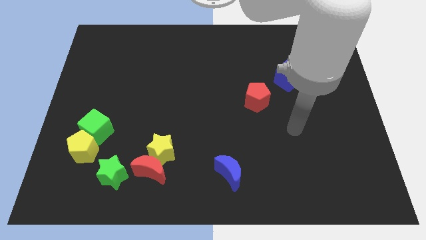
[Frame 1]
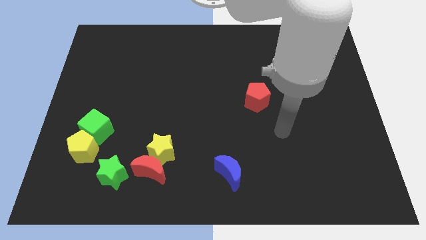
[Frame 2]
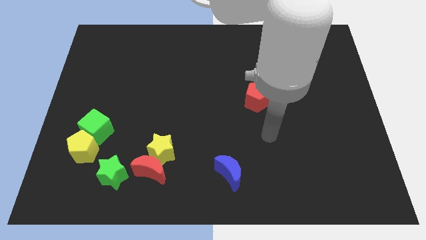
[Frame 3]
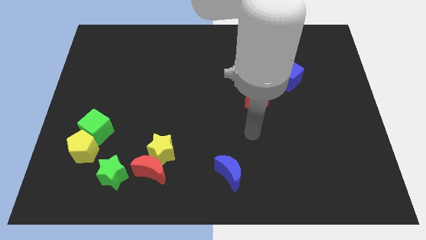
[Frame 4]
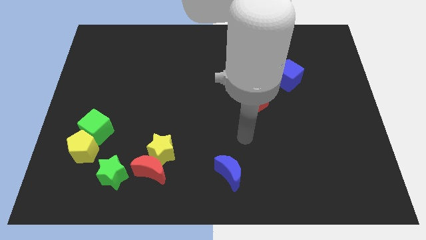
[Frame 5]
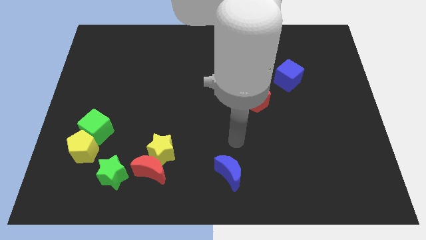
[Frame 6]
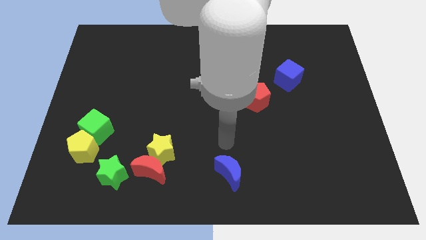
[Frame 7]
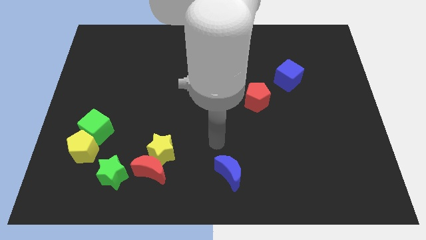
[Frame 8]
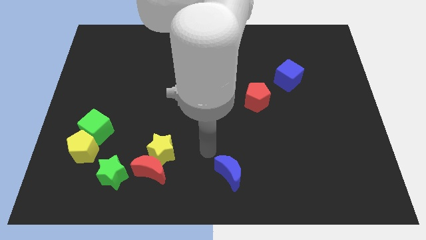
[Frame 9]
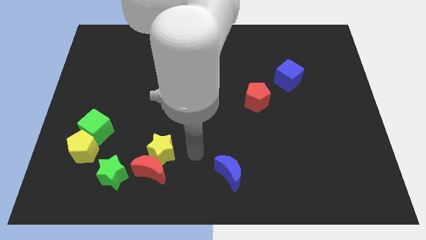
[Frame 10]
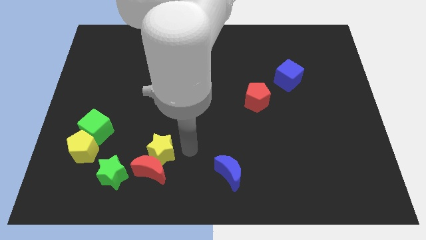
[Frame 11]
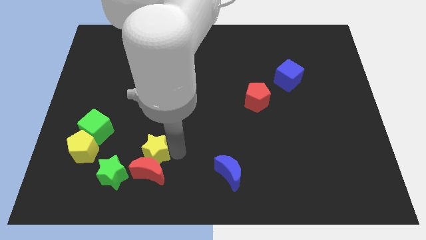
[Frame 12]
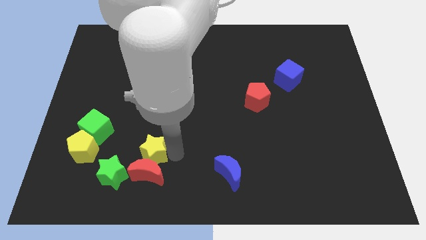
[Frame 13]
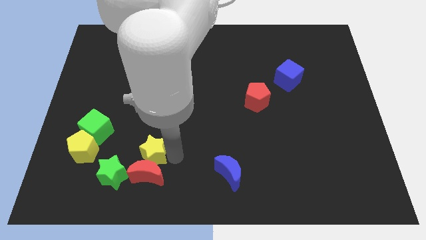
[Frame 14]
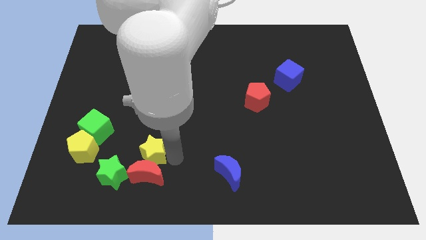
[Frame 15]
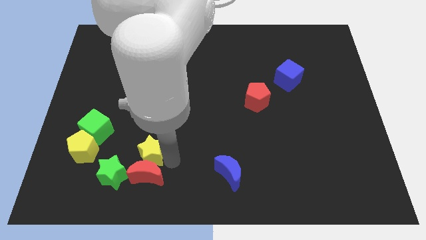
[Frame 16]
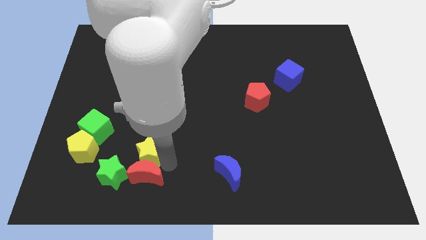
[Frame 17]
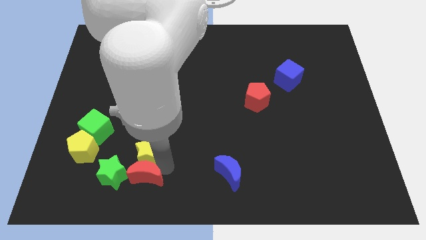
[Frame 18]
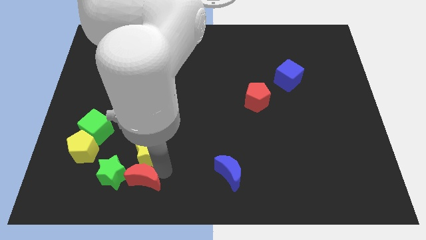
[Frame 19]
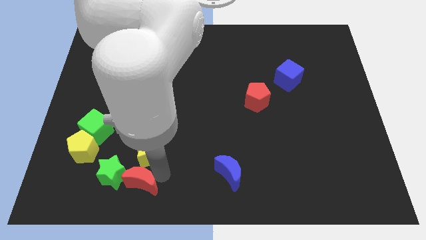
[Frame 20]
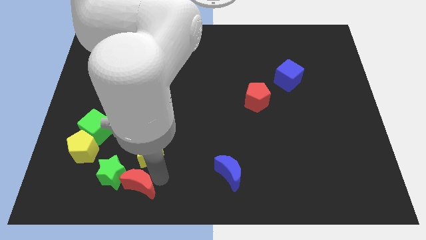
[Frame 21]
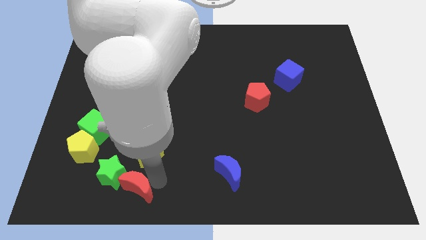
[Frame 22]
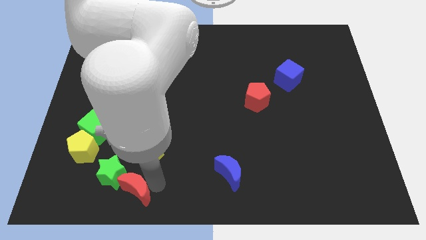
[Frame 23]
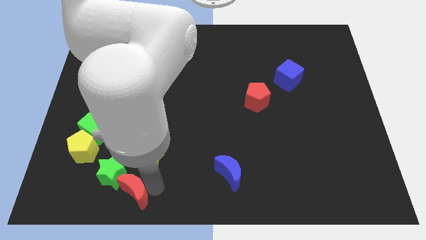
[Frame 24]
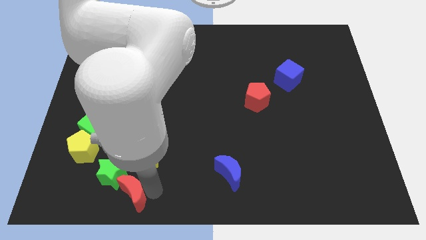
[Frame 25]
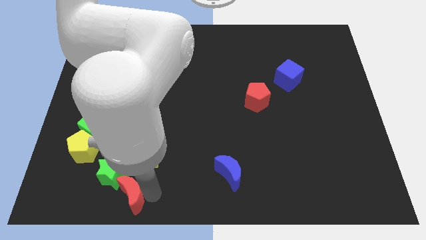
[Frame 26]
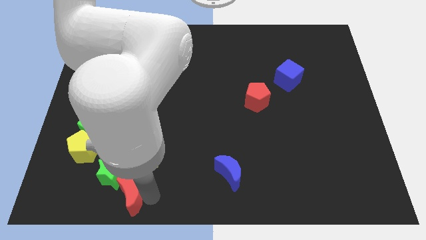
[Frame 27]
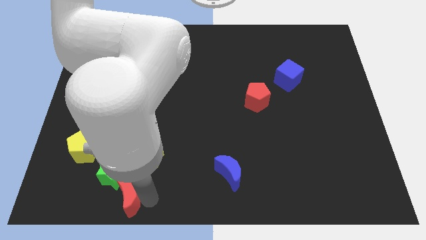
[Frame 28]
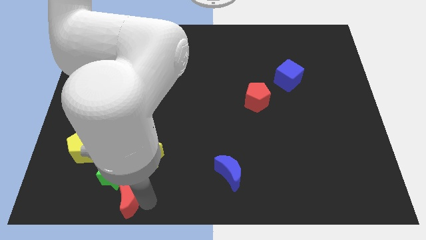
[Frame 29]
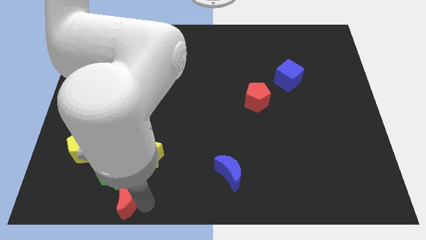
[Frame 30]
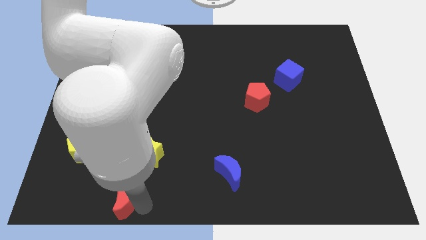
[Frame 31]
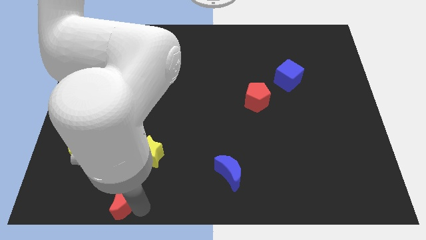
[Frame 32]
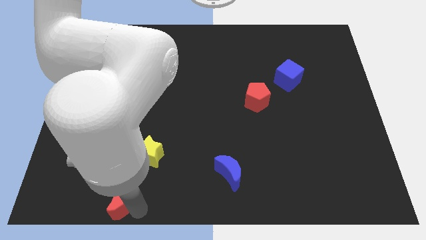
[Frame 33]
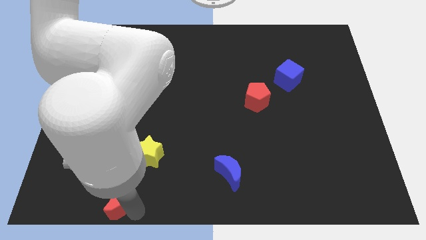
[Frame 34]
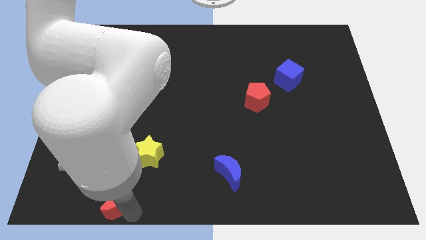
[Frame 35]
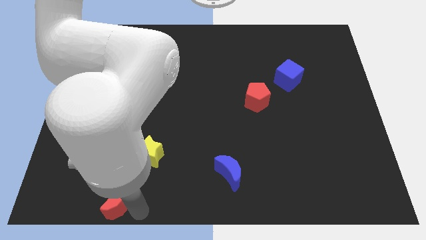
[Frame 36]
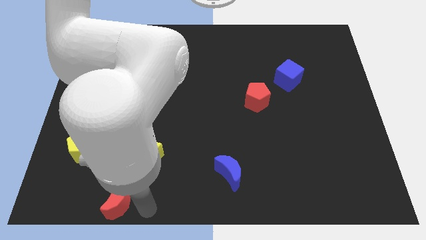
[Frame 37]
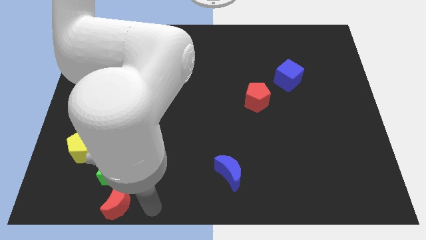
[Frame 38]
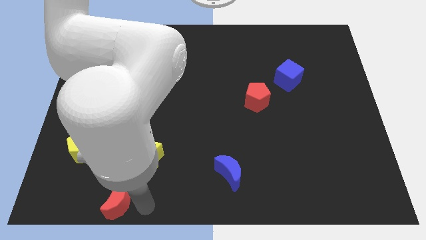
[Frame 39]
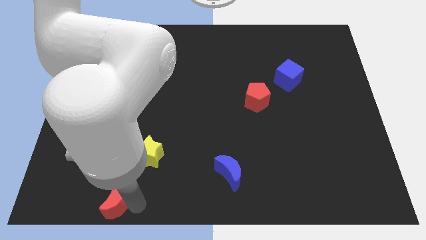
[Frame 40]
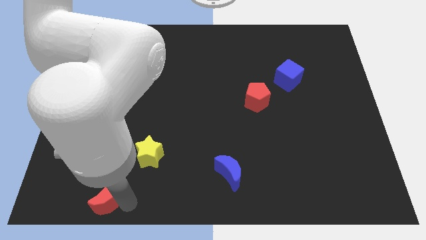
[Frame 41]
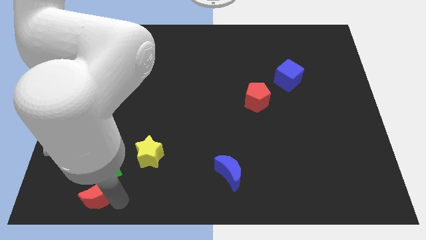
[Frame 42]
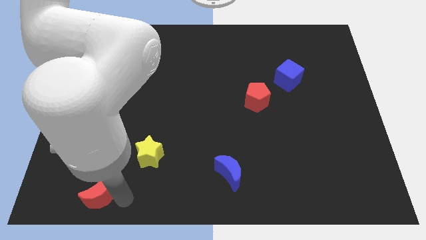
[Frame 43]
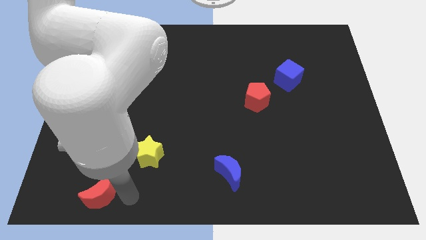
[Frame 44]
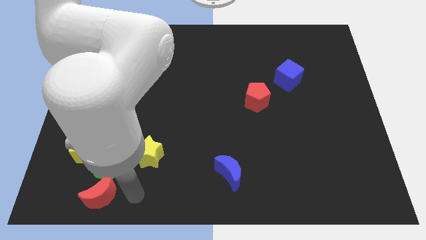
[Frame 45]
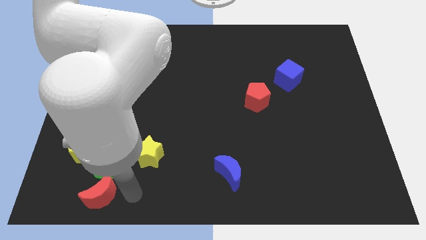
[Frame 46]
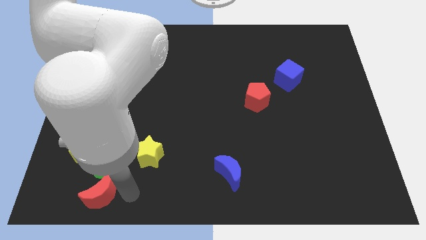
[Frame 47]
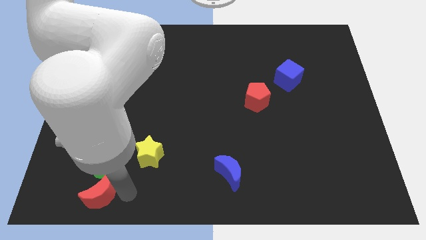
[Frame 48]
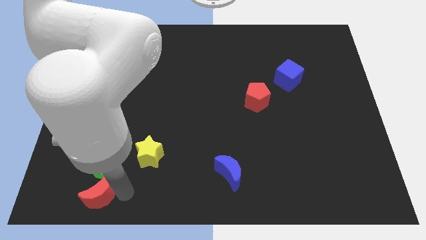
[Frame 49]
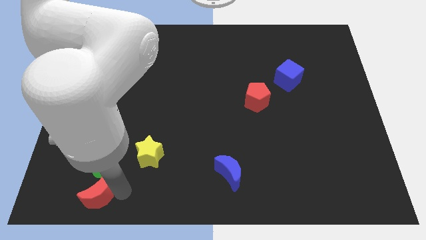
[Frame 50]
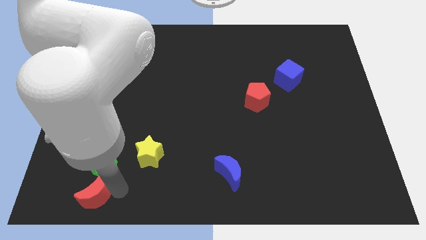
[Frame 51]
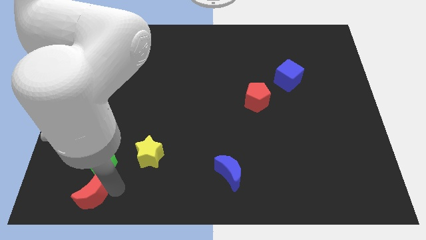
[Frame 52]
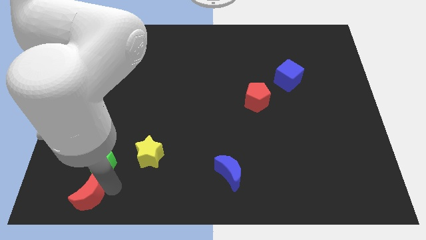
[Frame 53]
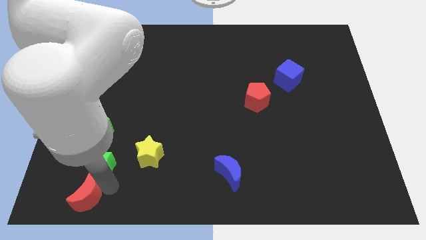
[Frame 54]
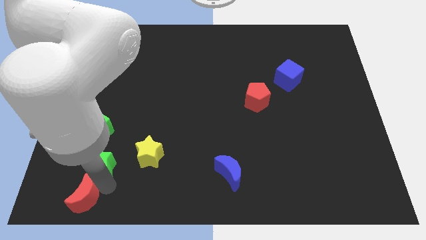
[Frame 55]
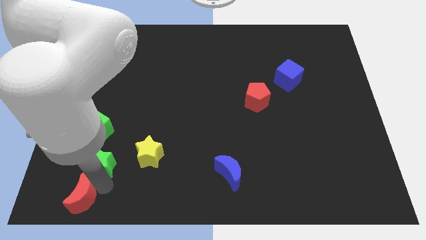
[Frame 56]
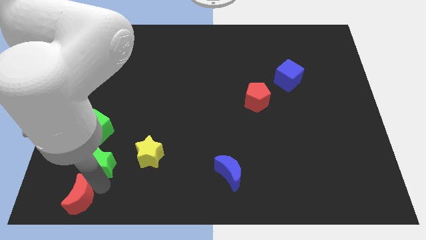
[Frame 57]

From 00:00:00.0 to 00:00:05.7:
move the red moon to the bottom left of the board

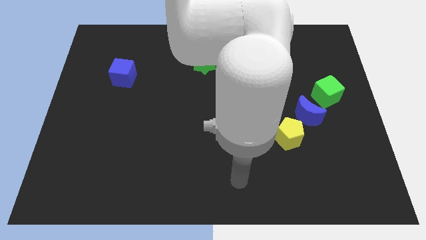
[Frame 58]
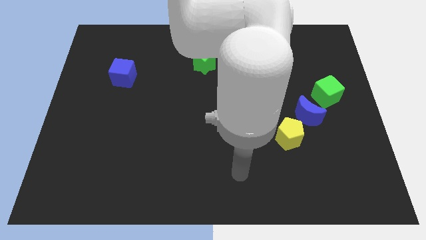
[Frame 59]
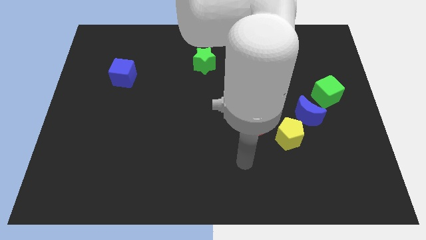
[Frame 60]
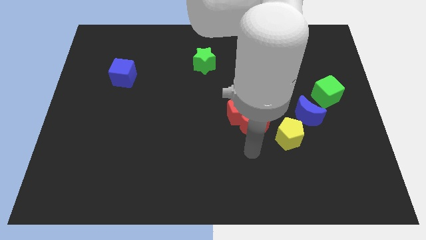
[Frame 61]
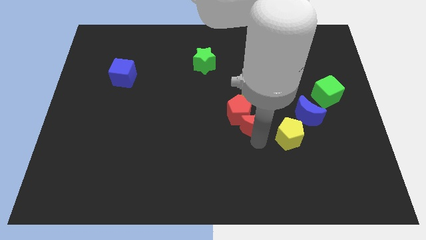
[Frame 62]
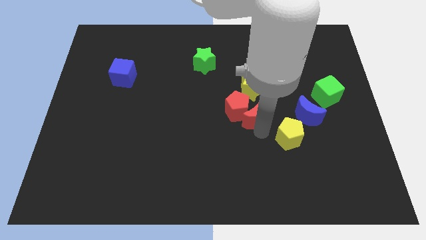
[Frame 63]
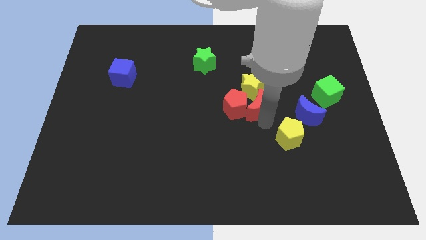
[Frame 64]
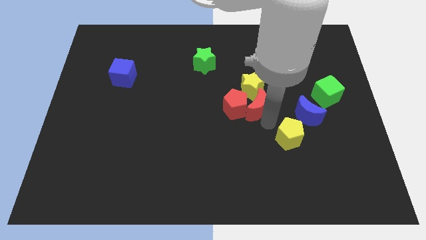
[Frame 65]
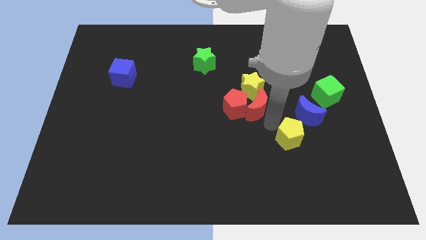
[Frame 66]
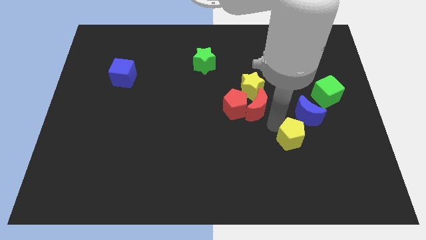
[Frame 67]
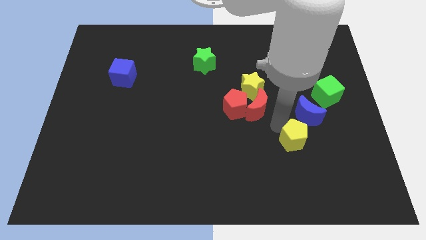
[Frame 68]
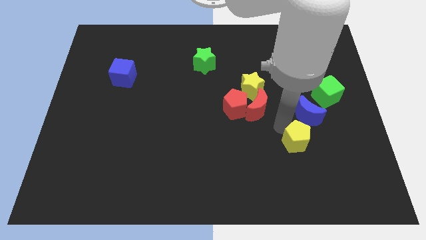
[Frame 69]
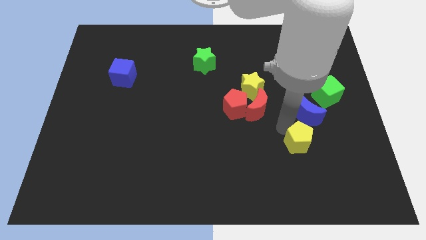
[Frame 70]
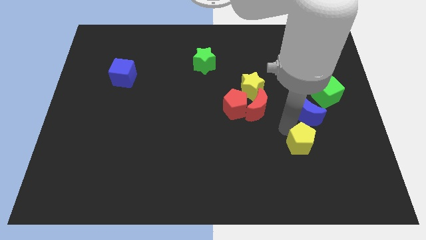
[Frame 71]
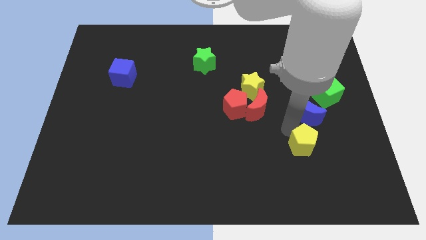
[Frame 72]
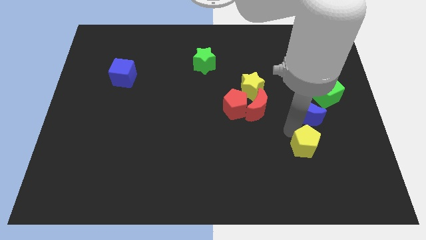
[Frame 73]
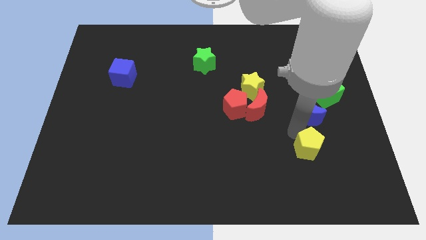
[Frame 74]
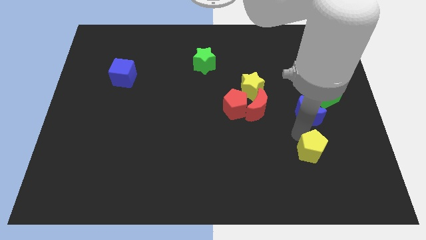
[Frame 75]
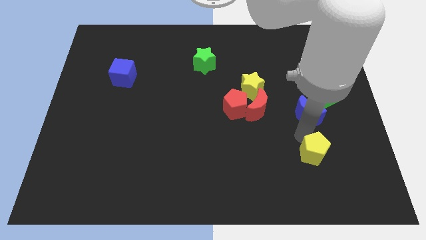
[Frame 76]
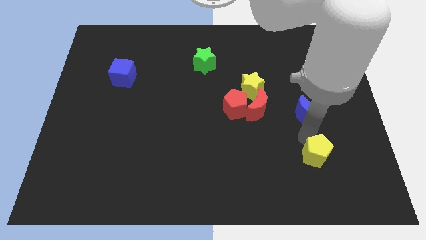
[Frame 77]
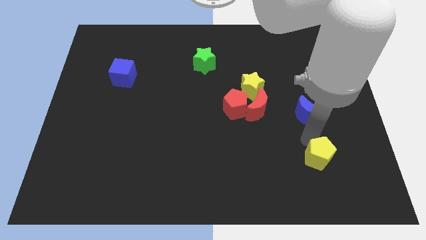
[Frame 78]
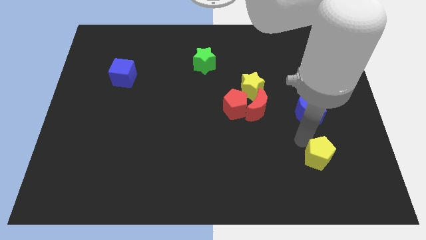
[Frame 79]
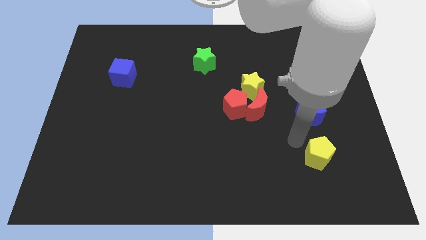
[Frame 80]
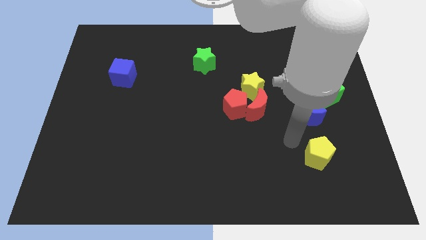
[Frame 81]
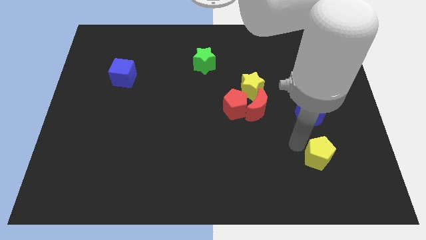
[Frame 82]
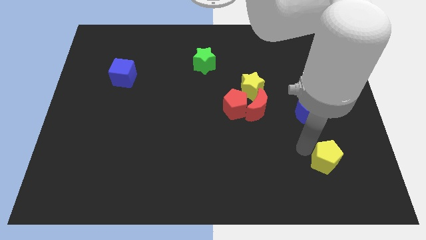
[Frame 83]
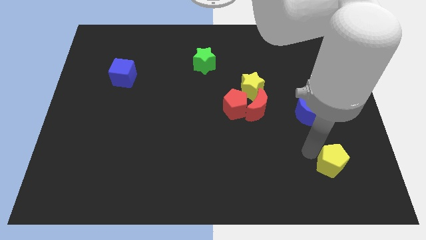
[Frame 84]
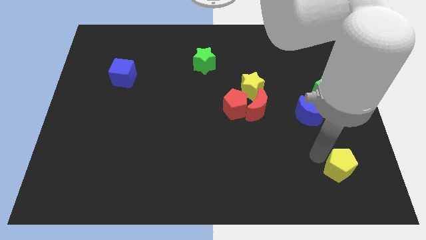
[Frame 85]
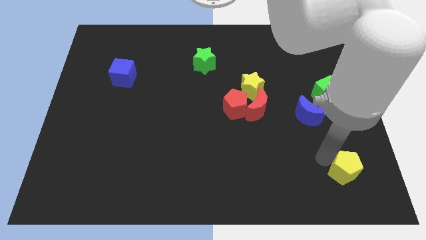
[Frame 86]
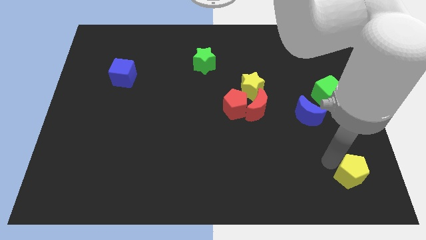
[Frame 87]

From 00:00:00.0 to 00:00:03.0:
put the yellow pentagon to the bottom right
